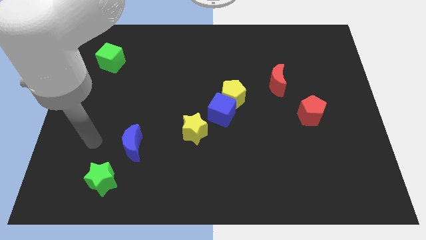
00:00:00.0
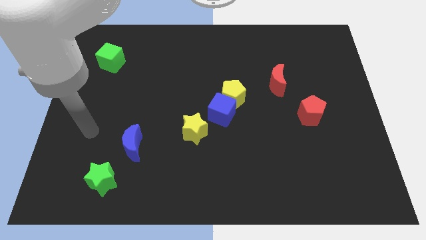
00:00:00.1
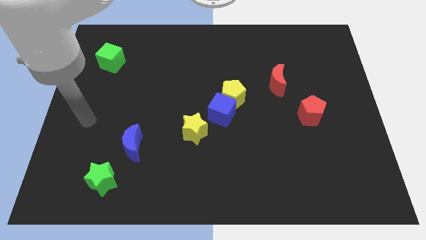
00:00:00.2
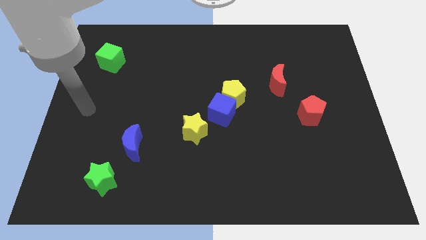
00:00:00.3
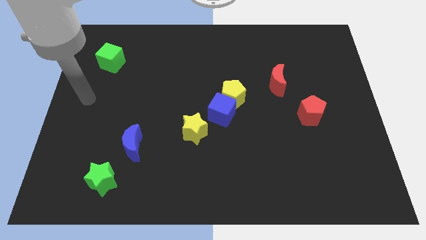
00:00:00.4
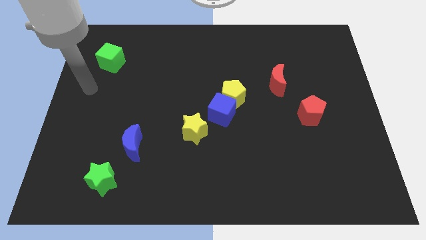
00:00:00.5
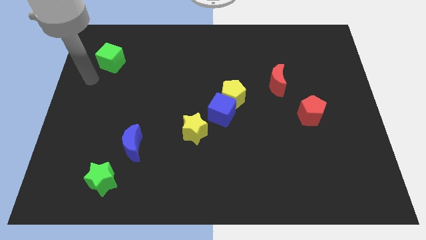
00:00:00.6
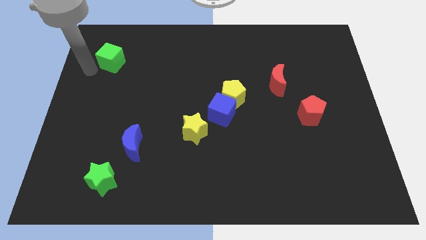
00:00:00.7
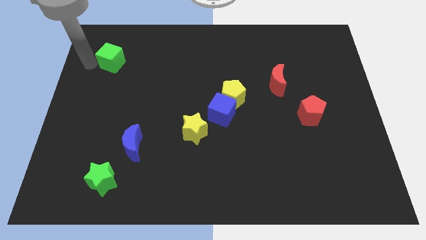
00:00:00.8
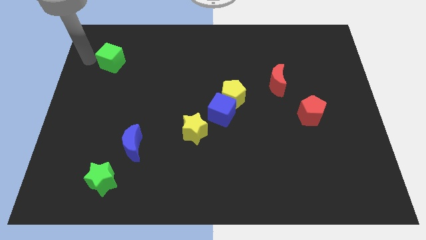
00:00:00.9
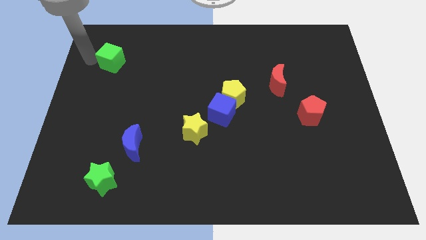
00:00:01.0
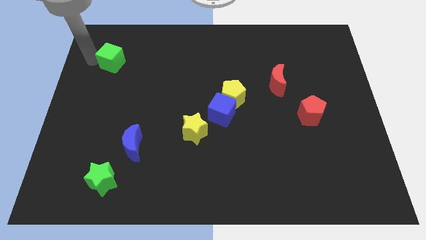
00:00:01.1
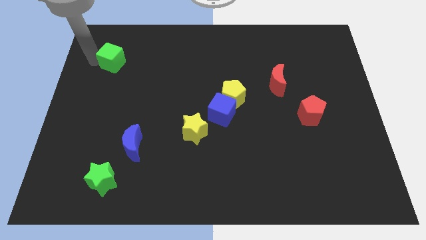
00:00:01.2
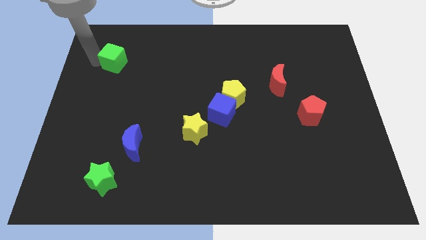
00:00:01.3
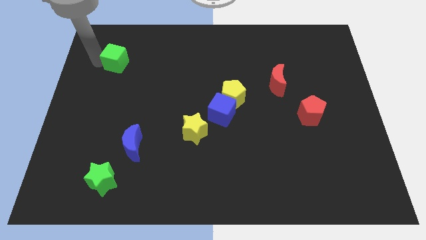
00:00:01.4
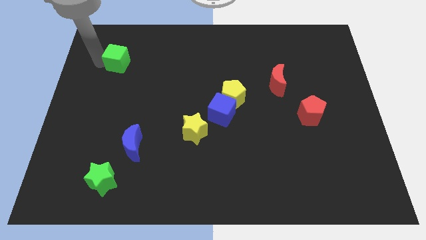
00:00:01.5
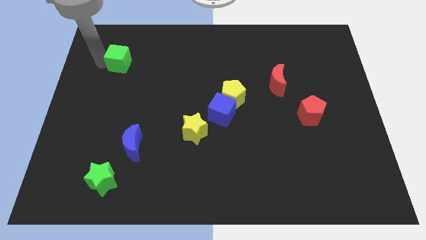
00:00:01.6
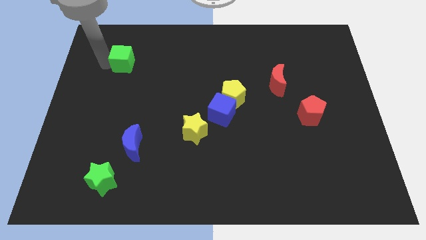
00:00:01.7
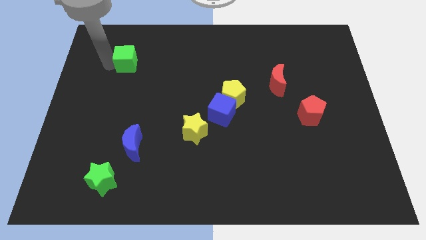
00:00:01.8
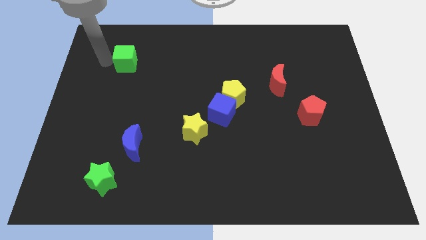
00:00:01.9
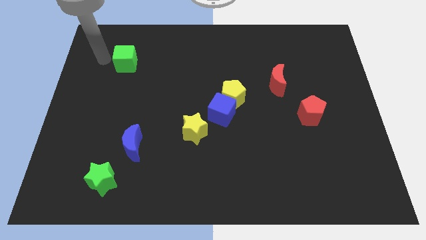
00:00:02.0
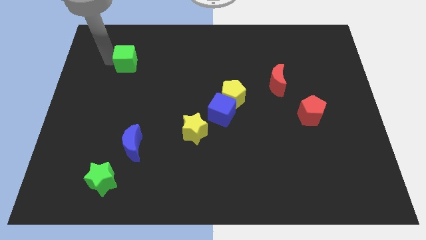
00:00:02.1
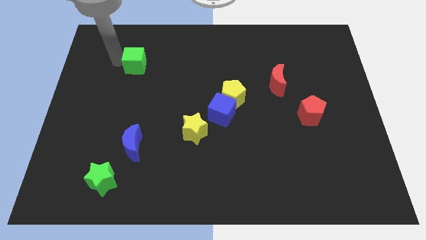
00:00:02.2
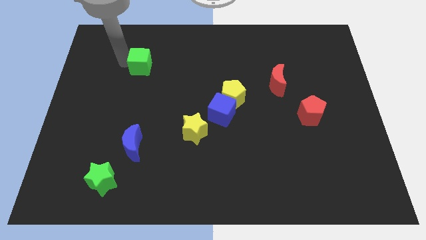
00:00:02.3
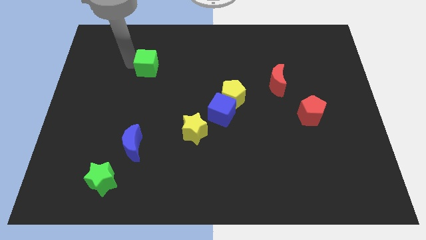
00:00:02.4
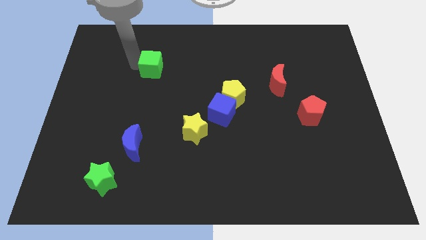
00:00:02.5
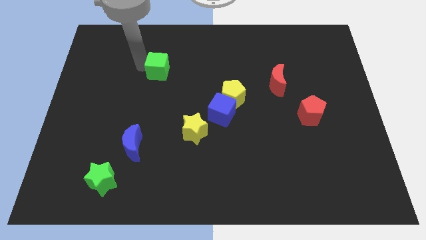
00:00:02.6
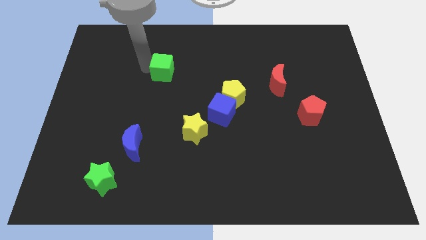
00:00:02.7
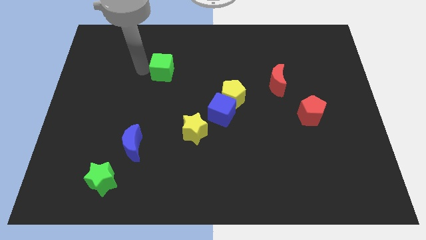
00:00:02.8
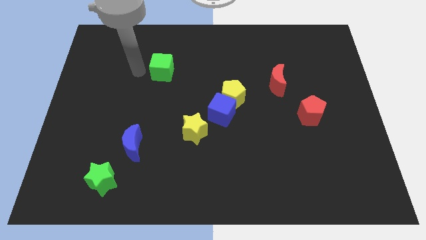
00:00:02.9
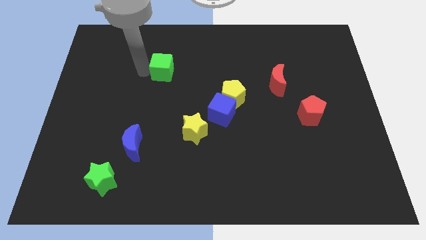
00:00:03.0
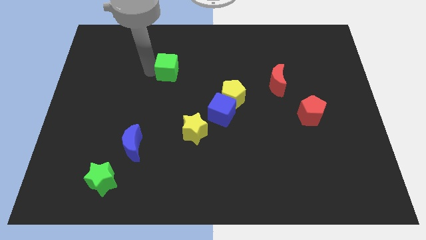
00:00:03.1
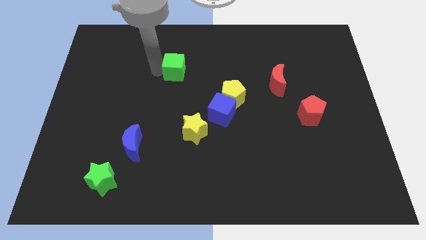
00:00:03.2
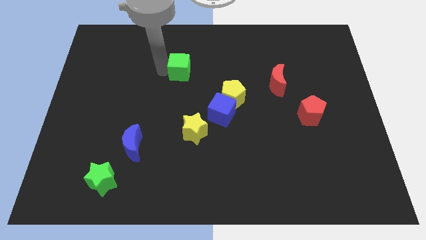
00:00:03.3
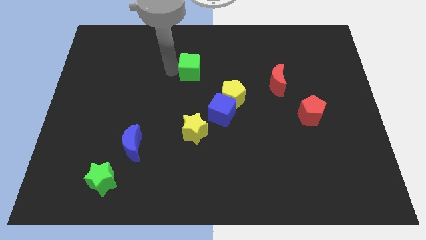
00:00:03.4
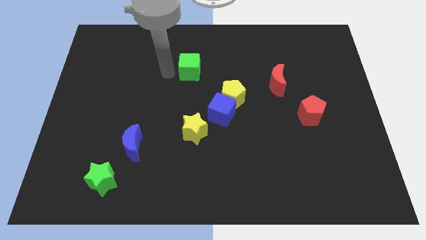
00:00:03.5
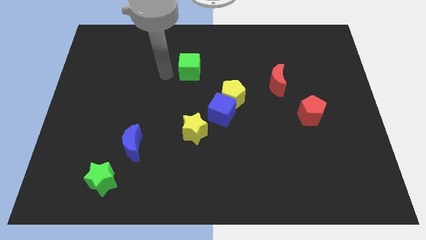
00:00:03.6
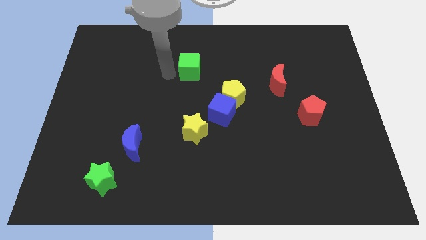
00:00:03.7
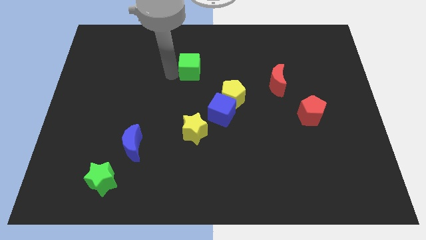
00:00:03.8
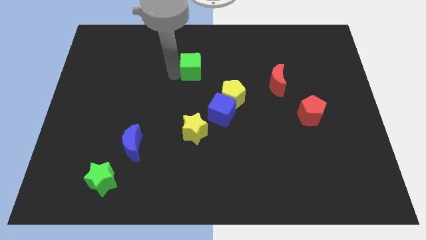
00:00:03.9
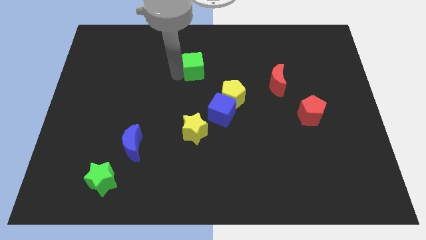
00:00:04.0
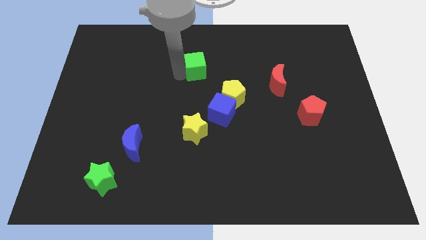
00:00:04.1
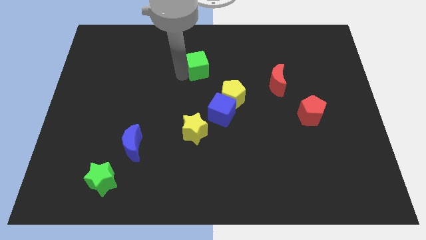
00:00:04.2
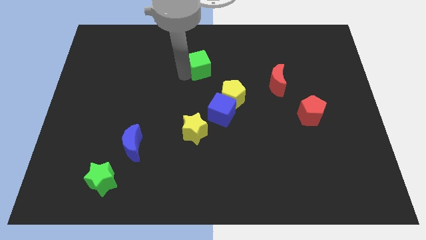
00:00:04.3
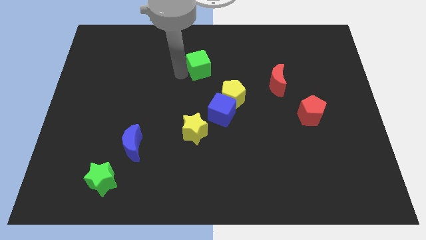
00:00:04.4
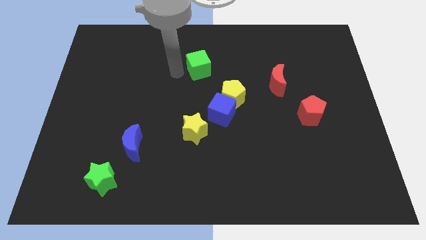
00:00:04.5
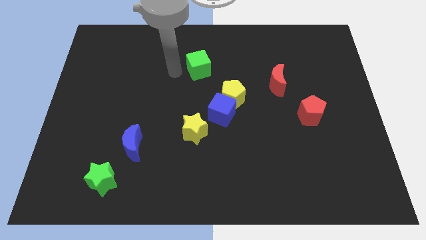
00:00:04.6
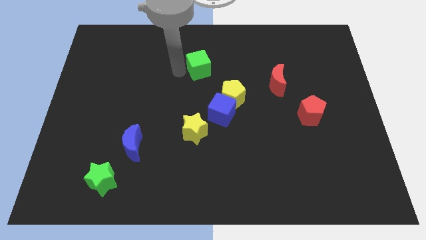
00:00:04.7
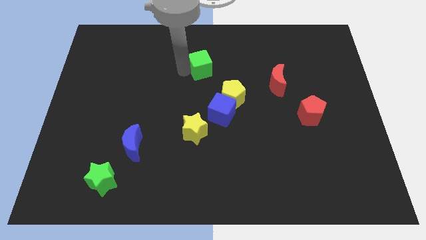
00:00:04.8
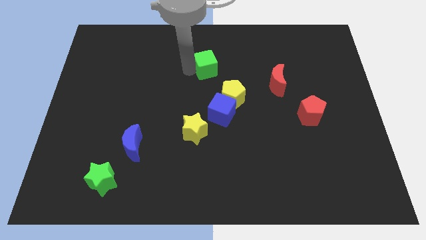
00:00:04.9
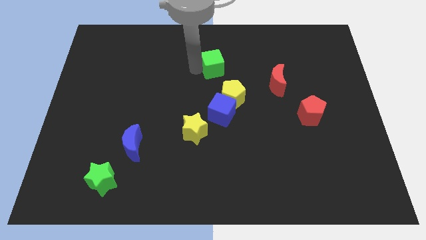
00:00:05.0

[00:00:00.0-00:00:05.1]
put the green cube to the top side of the yellow pentagon

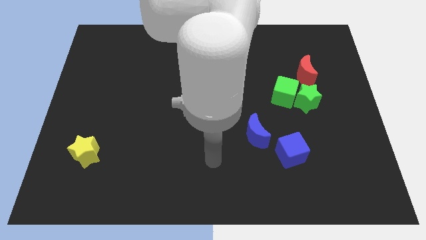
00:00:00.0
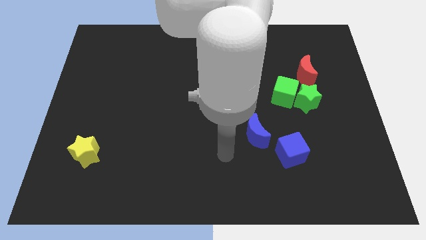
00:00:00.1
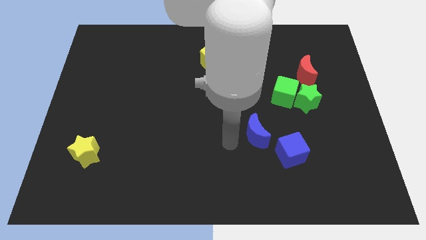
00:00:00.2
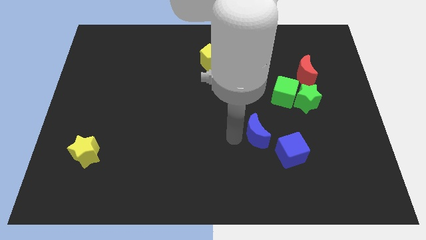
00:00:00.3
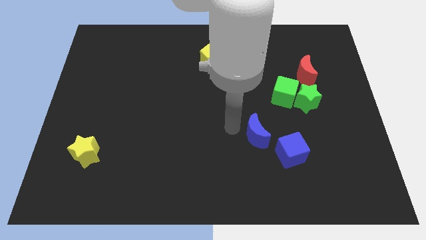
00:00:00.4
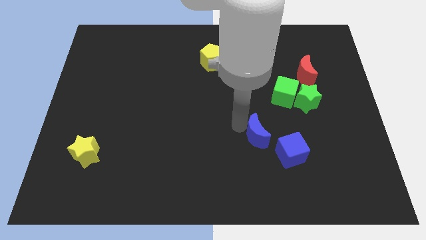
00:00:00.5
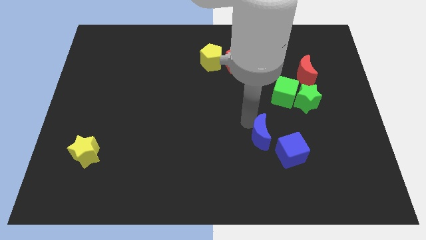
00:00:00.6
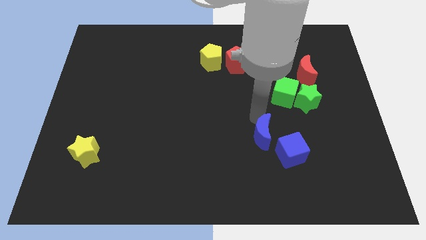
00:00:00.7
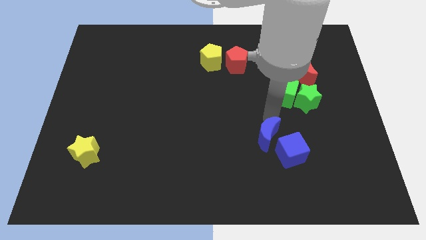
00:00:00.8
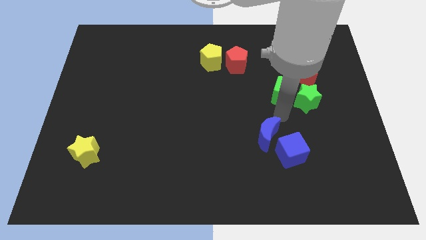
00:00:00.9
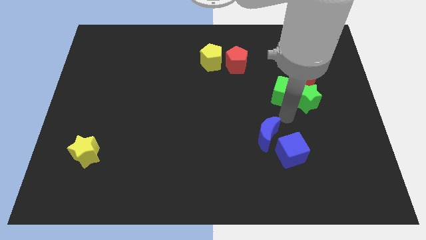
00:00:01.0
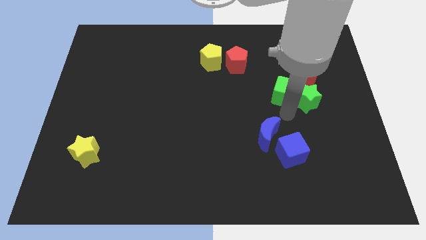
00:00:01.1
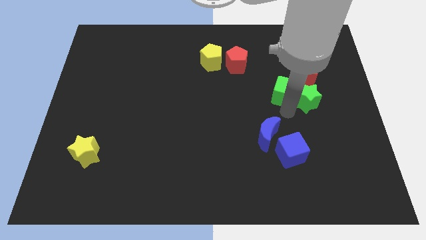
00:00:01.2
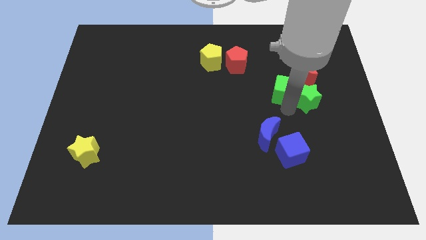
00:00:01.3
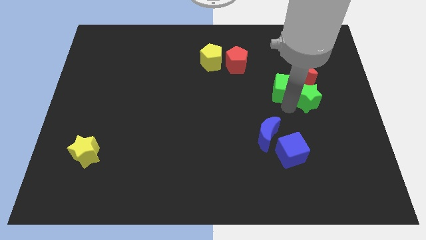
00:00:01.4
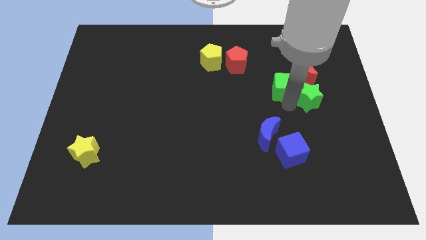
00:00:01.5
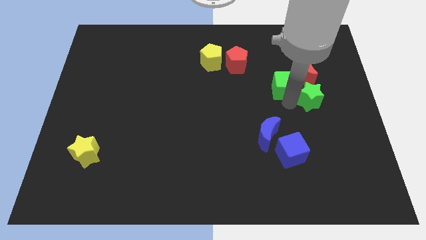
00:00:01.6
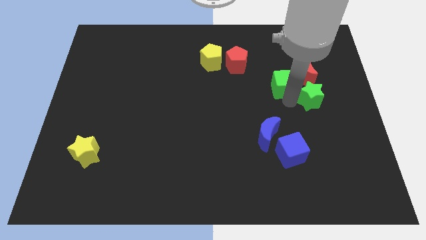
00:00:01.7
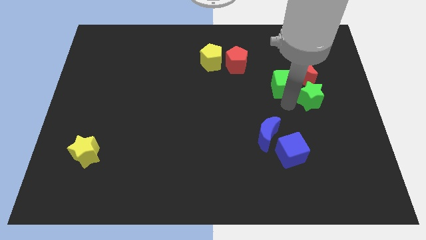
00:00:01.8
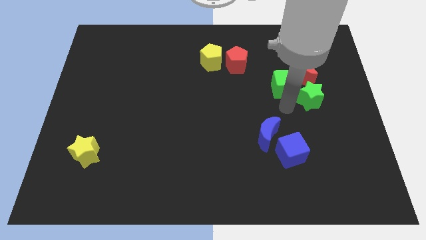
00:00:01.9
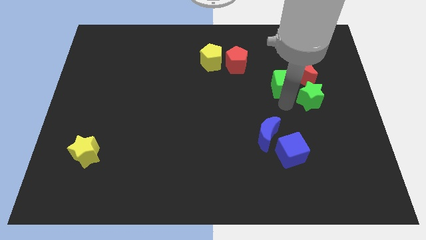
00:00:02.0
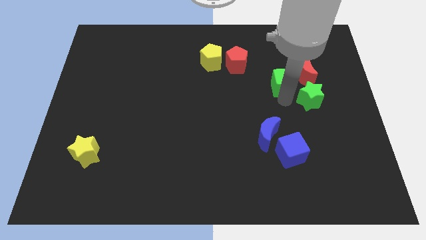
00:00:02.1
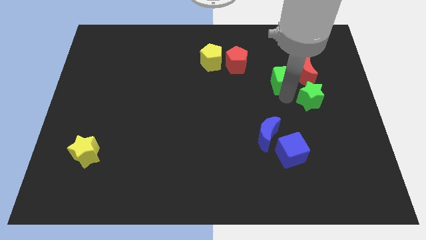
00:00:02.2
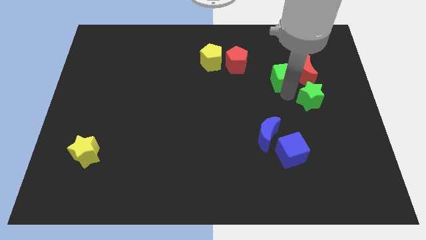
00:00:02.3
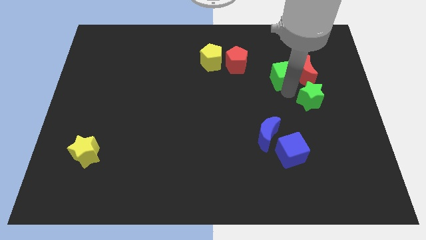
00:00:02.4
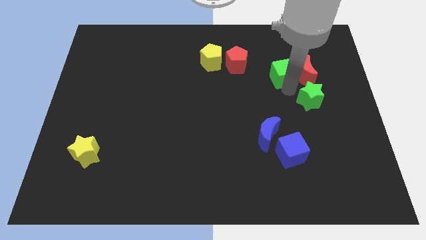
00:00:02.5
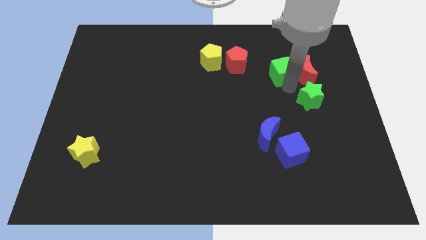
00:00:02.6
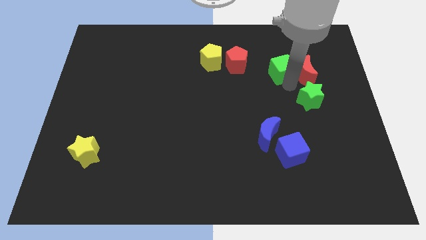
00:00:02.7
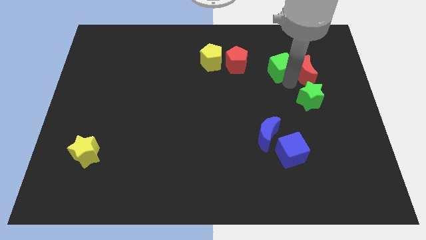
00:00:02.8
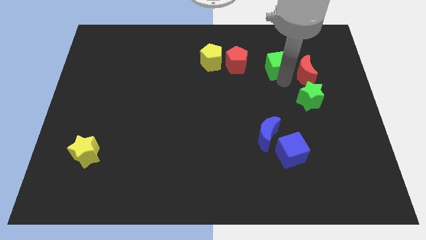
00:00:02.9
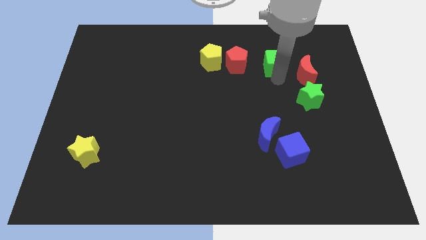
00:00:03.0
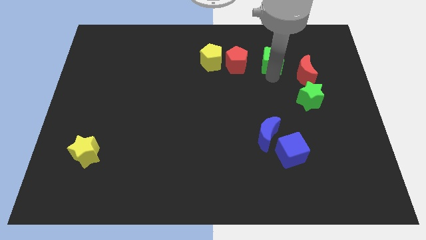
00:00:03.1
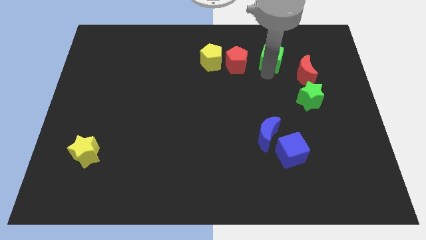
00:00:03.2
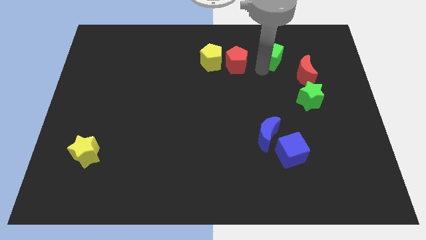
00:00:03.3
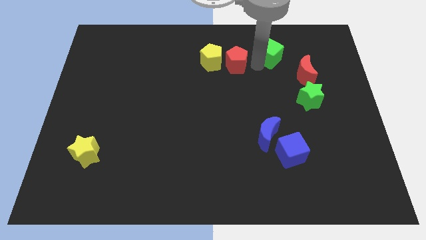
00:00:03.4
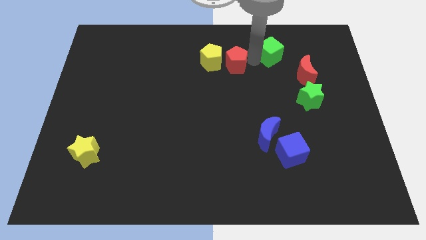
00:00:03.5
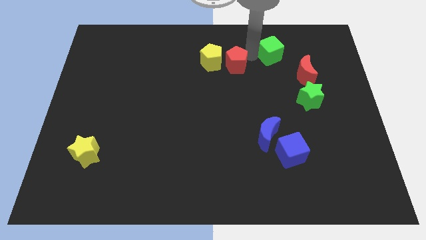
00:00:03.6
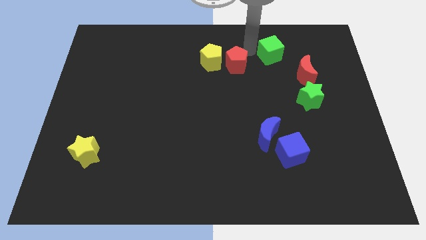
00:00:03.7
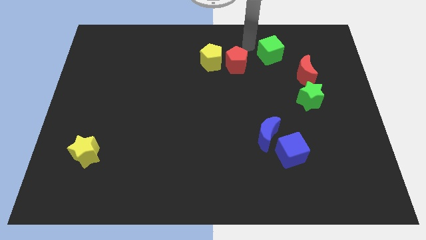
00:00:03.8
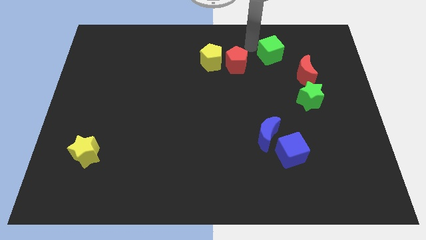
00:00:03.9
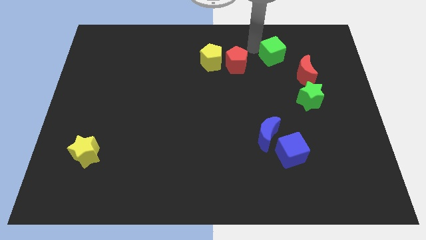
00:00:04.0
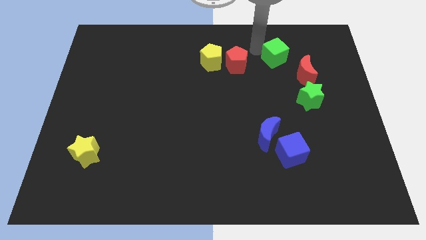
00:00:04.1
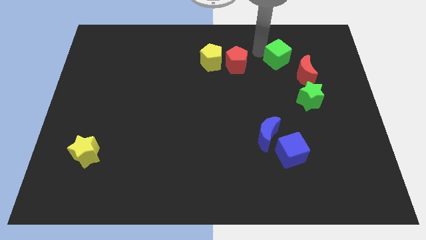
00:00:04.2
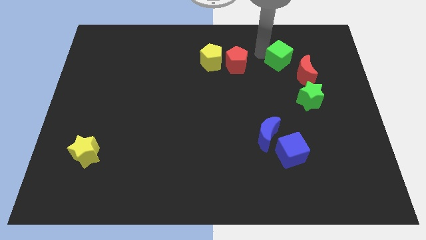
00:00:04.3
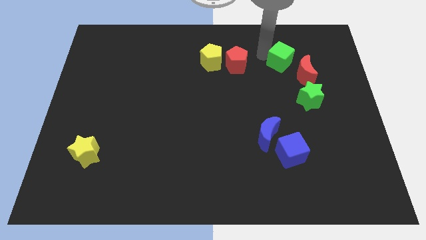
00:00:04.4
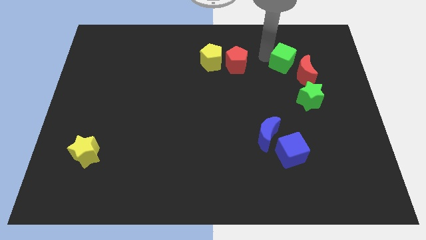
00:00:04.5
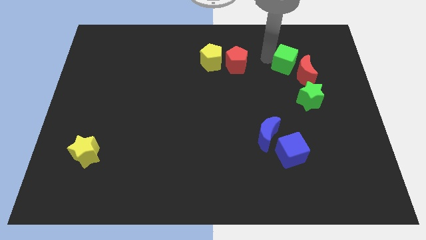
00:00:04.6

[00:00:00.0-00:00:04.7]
put the green cube above the green star
